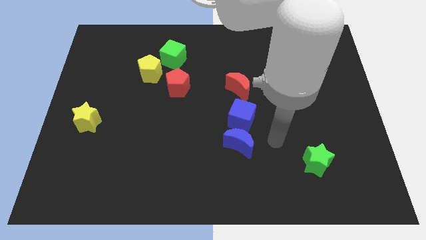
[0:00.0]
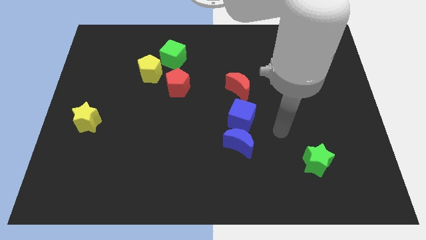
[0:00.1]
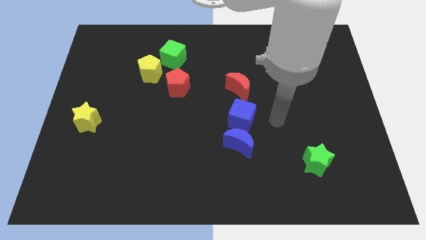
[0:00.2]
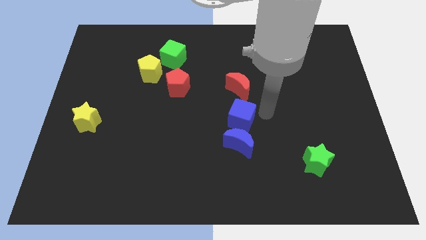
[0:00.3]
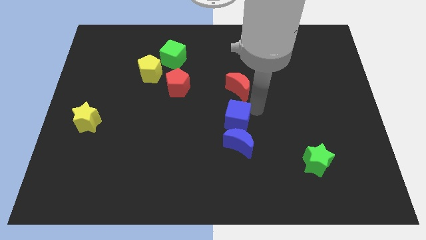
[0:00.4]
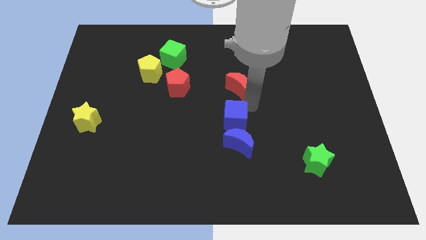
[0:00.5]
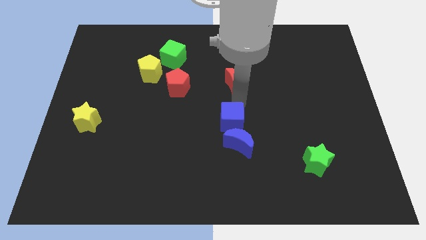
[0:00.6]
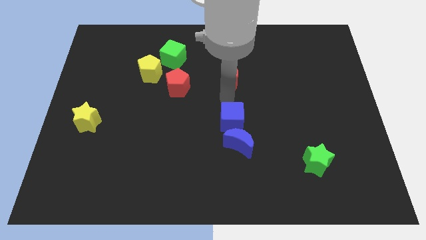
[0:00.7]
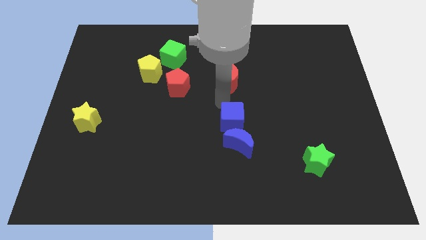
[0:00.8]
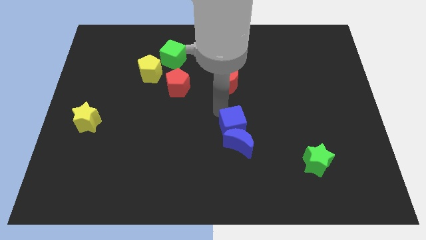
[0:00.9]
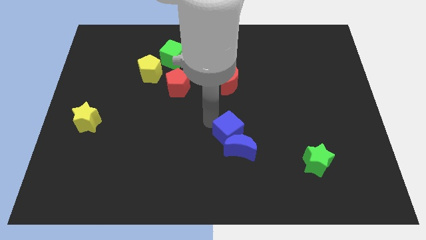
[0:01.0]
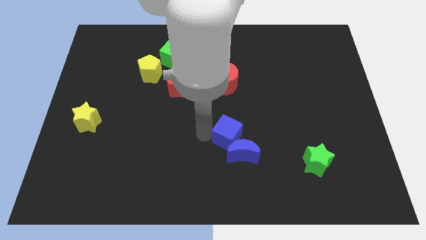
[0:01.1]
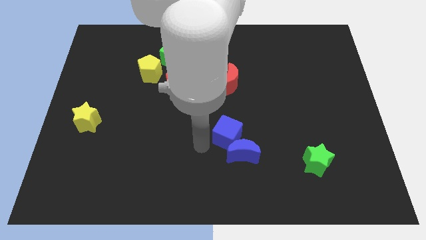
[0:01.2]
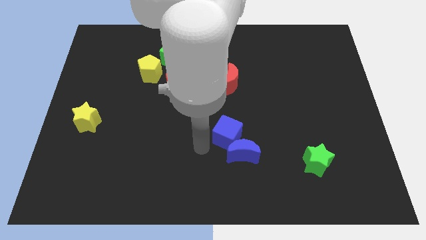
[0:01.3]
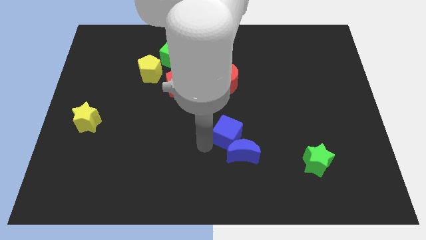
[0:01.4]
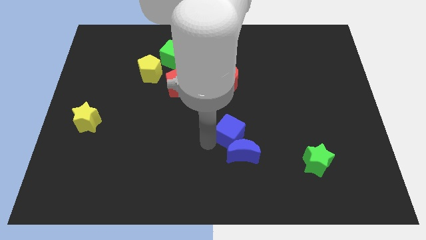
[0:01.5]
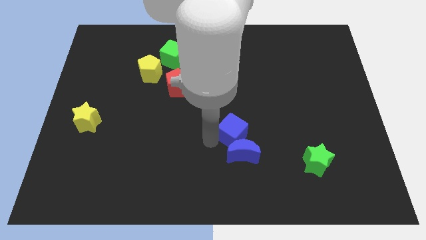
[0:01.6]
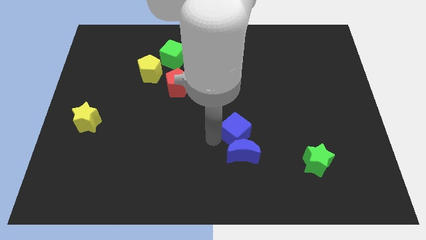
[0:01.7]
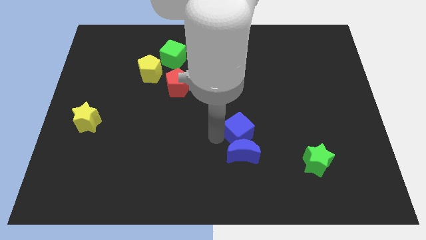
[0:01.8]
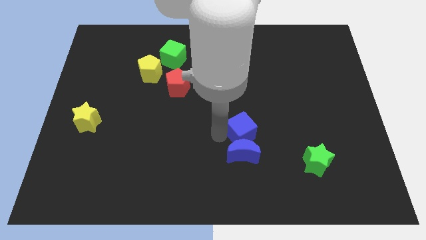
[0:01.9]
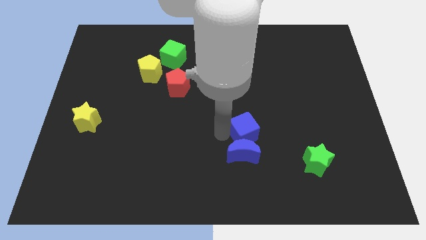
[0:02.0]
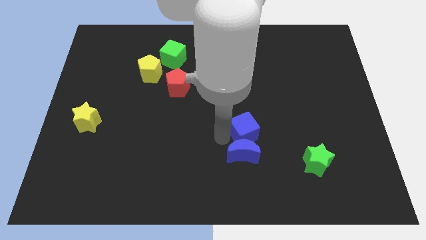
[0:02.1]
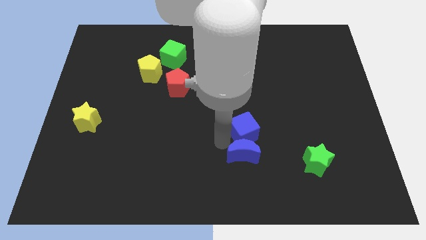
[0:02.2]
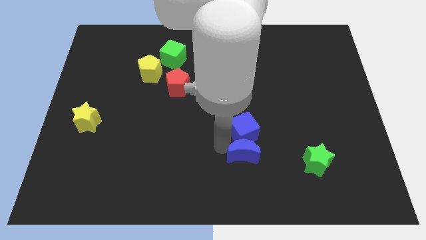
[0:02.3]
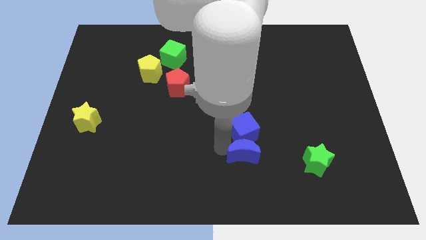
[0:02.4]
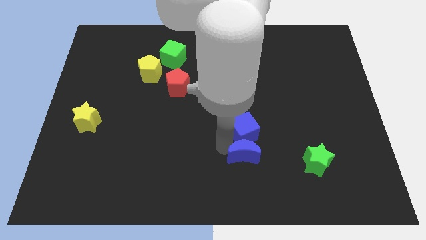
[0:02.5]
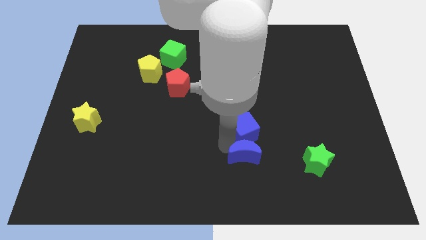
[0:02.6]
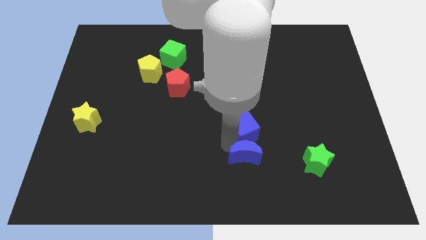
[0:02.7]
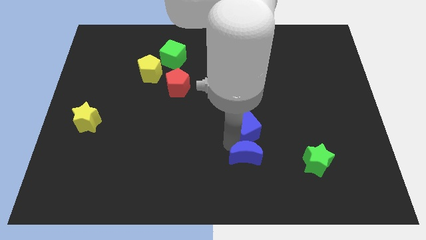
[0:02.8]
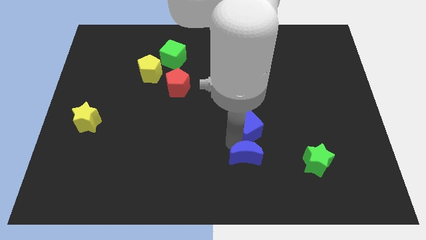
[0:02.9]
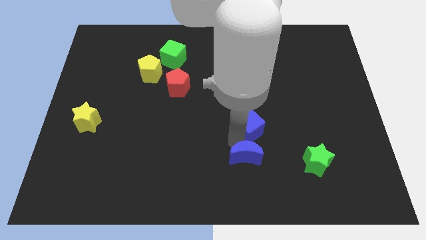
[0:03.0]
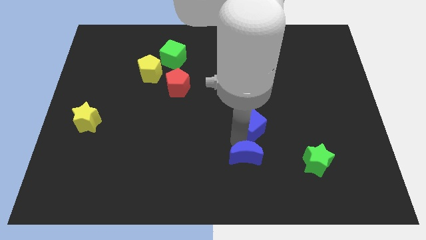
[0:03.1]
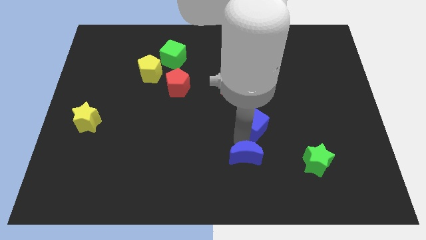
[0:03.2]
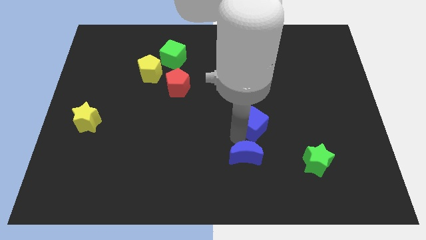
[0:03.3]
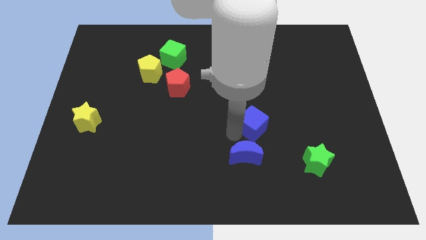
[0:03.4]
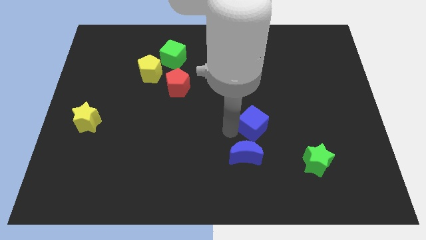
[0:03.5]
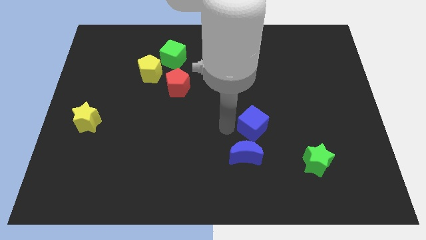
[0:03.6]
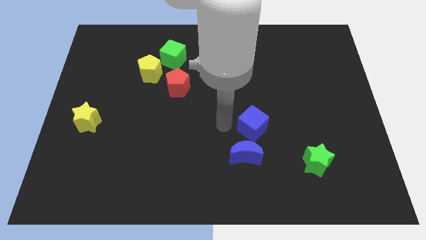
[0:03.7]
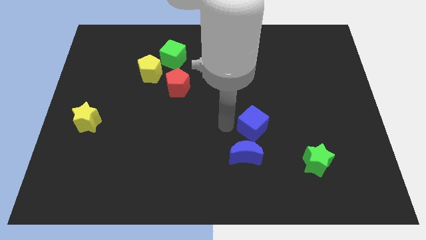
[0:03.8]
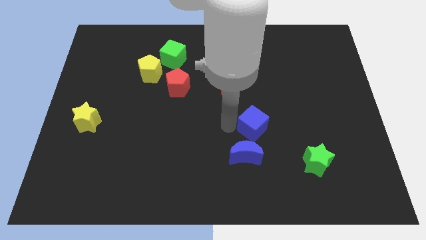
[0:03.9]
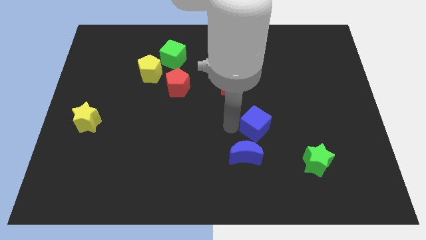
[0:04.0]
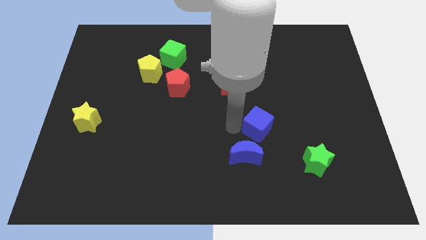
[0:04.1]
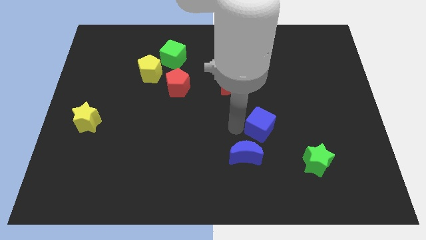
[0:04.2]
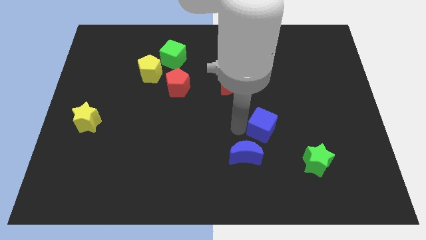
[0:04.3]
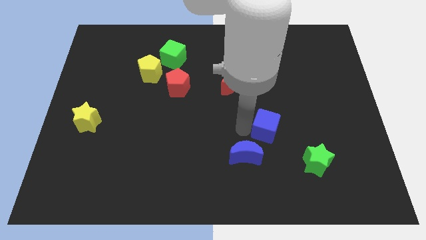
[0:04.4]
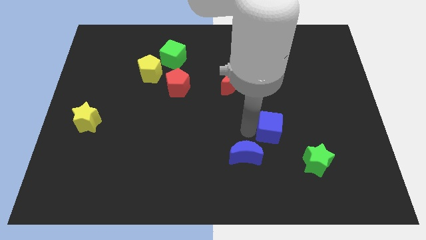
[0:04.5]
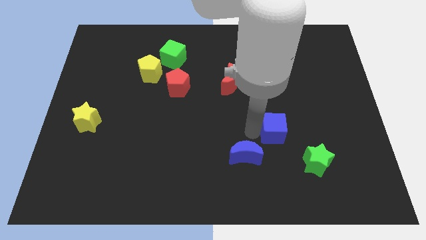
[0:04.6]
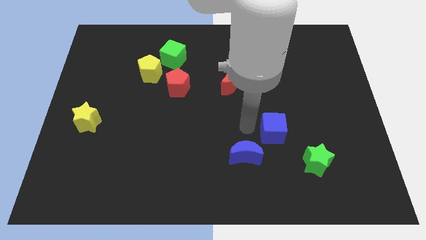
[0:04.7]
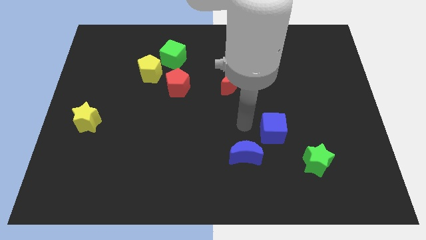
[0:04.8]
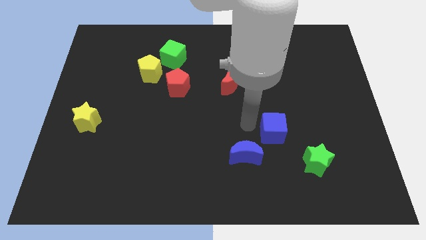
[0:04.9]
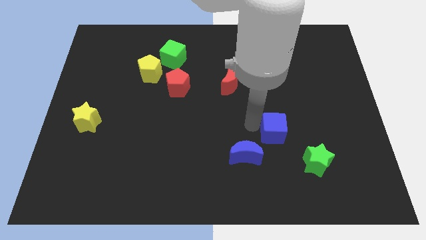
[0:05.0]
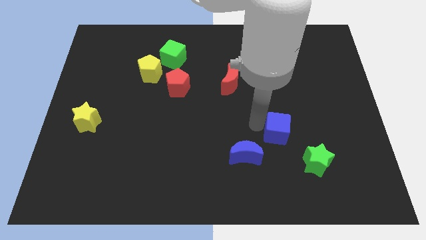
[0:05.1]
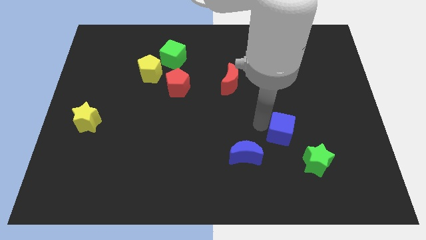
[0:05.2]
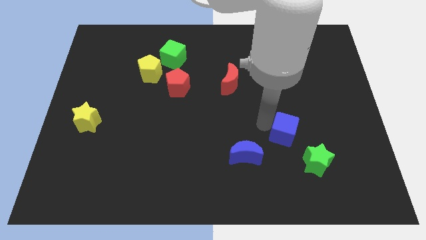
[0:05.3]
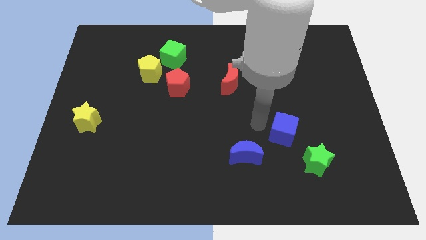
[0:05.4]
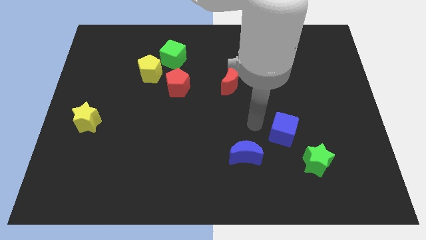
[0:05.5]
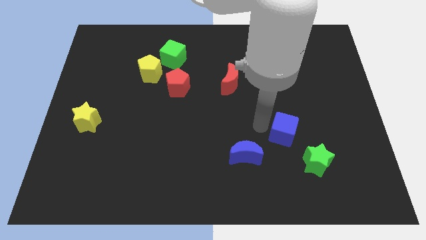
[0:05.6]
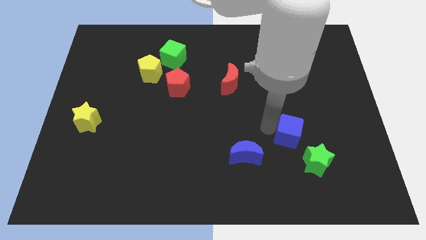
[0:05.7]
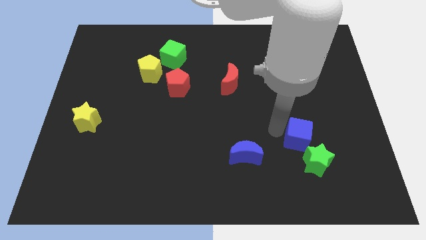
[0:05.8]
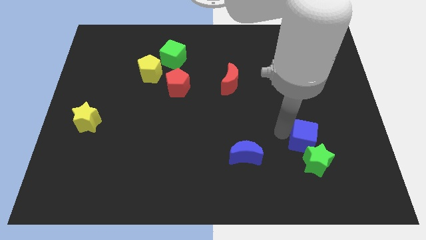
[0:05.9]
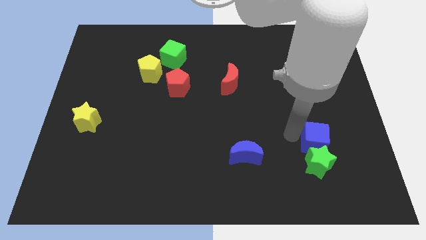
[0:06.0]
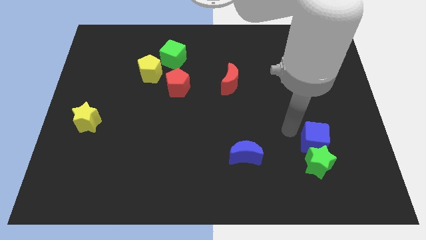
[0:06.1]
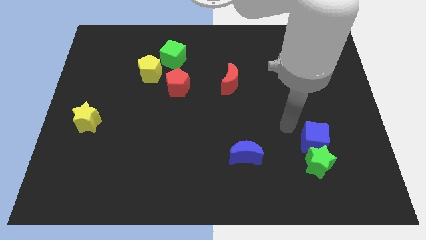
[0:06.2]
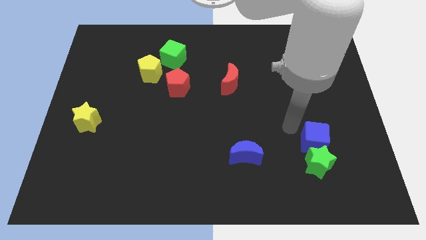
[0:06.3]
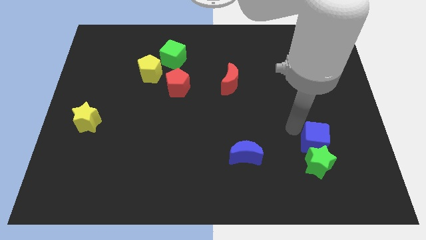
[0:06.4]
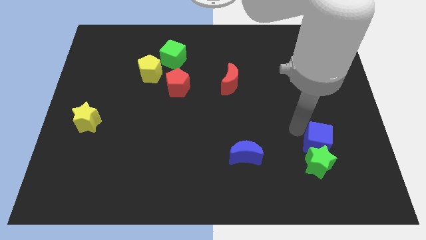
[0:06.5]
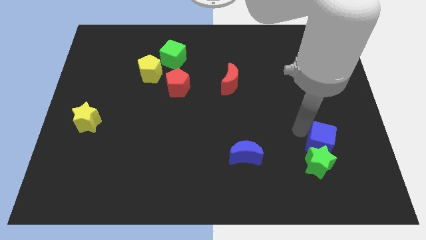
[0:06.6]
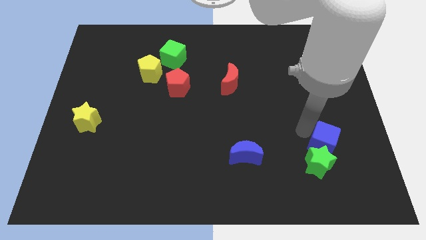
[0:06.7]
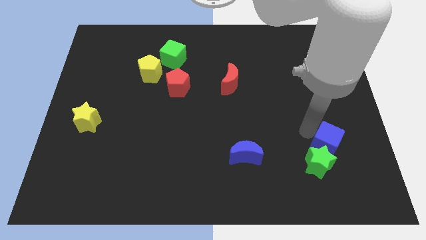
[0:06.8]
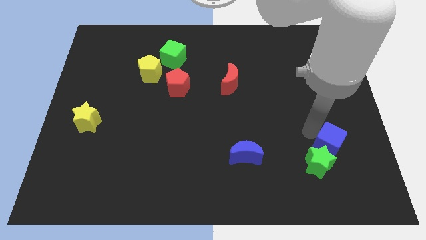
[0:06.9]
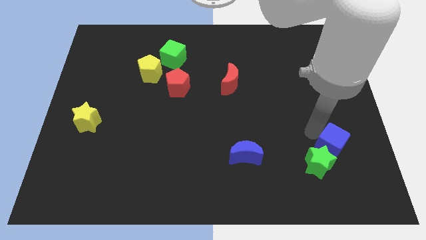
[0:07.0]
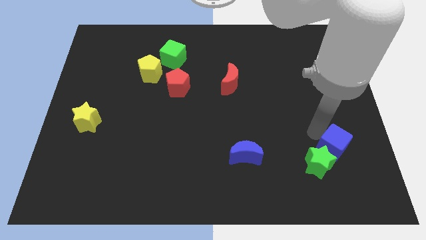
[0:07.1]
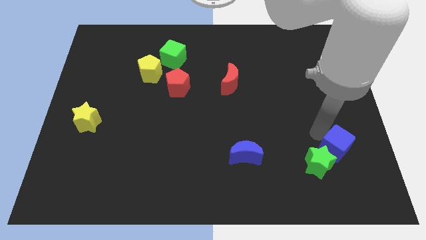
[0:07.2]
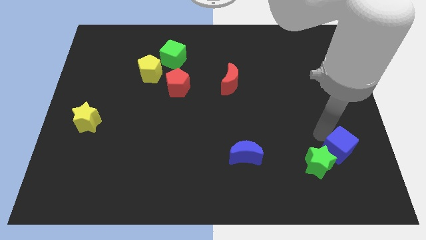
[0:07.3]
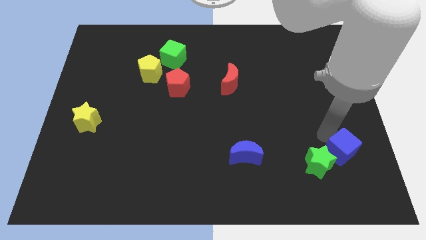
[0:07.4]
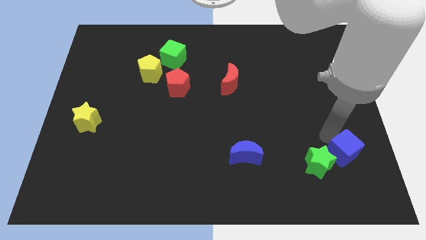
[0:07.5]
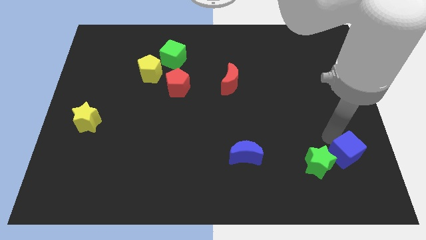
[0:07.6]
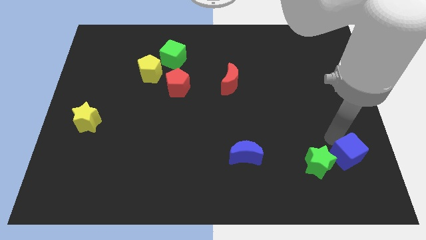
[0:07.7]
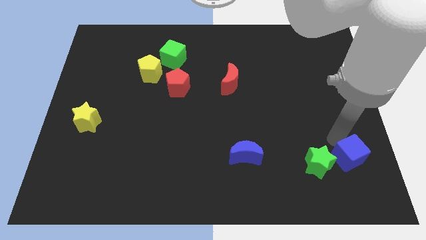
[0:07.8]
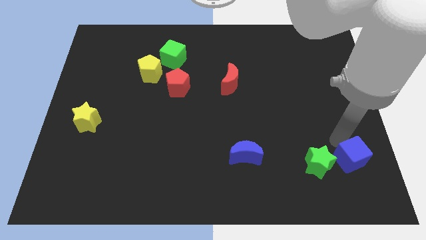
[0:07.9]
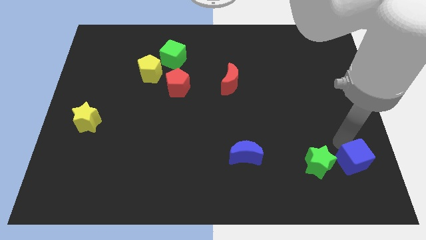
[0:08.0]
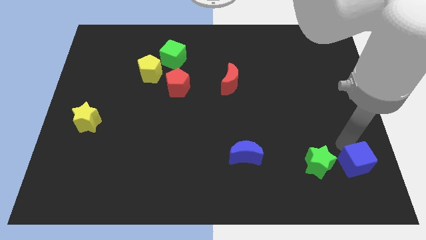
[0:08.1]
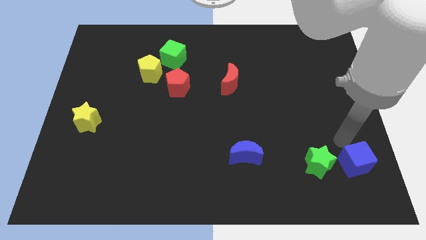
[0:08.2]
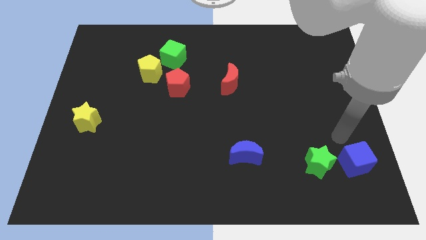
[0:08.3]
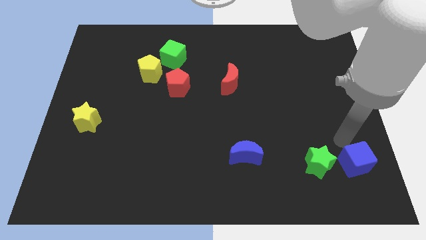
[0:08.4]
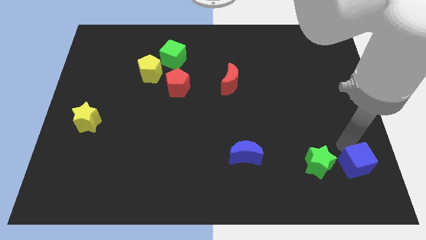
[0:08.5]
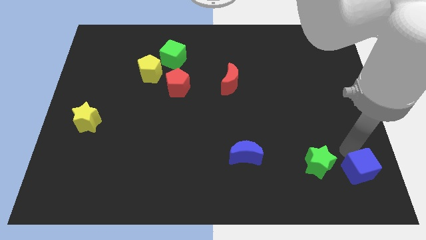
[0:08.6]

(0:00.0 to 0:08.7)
slide the blue cube to the lower right corner
